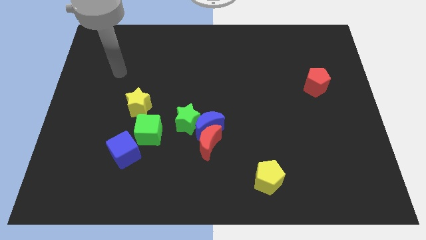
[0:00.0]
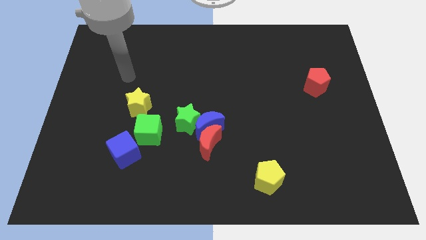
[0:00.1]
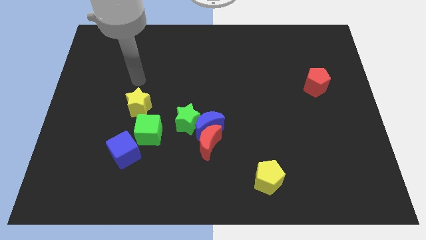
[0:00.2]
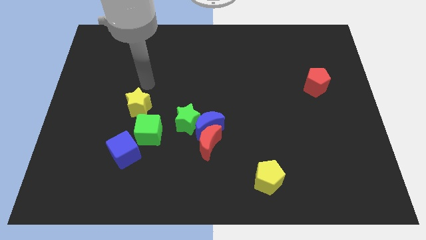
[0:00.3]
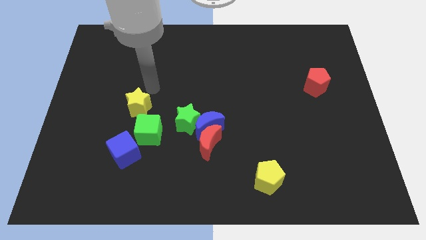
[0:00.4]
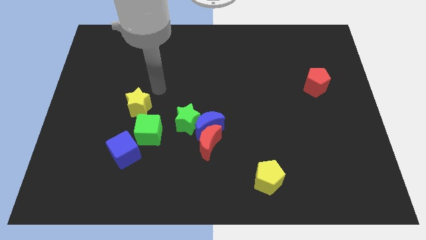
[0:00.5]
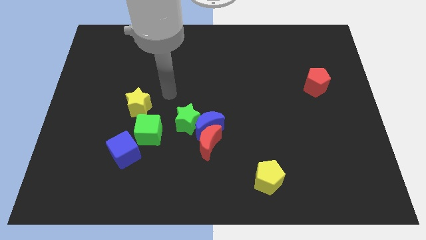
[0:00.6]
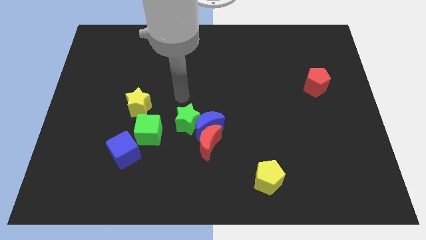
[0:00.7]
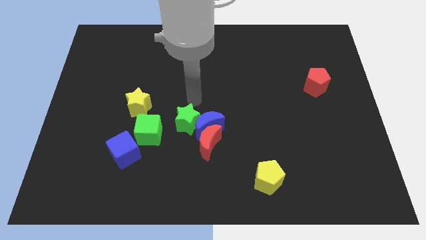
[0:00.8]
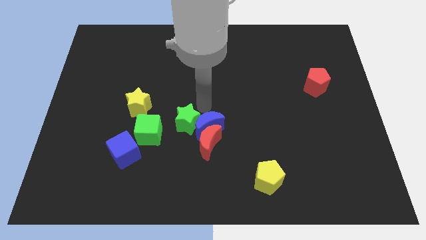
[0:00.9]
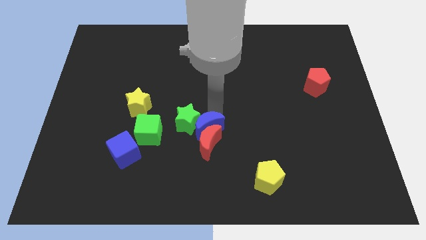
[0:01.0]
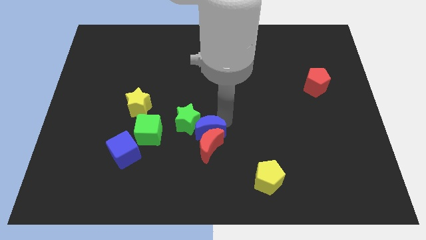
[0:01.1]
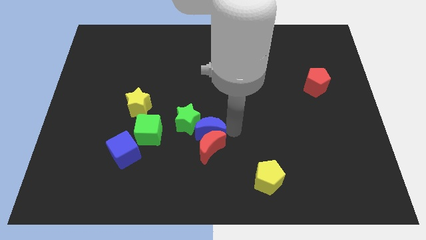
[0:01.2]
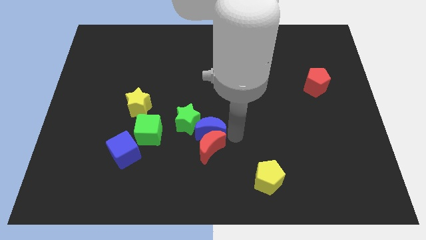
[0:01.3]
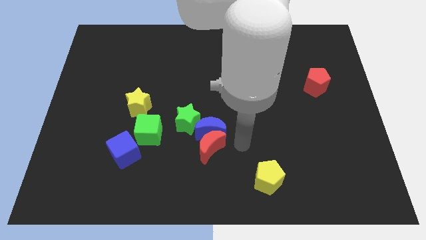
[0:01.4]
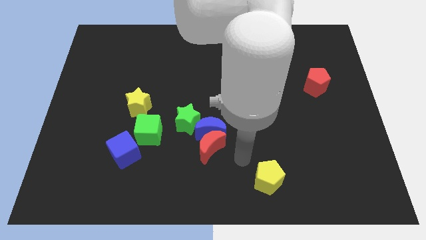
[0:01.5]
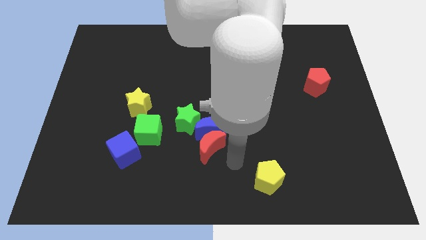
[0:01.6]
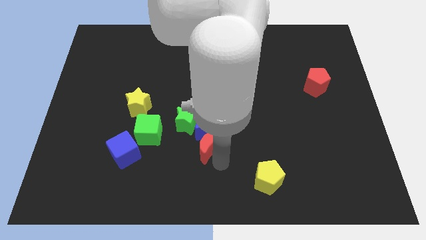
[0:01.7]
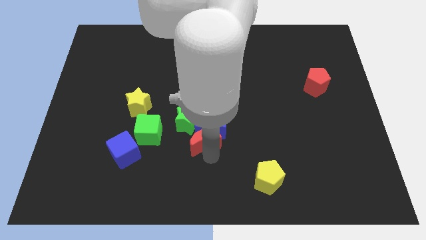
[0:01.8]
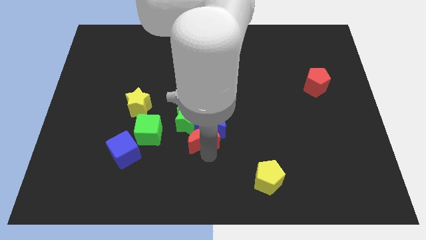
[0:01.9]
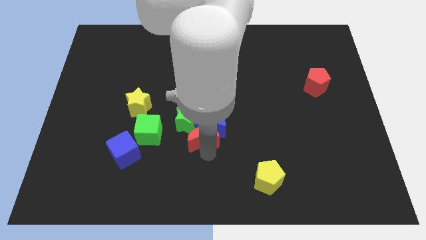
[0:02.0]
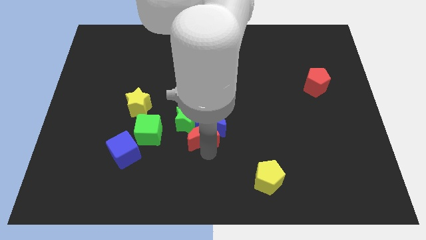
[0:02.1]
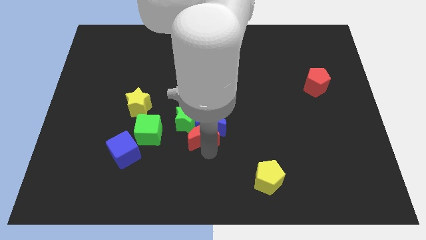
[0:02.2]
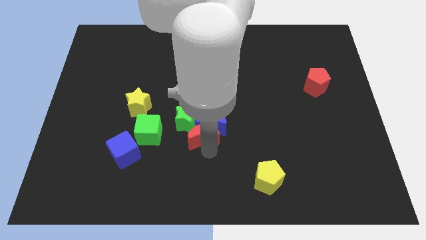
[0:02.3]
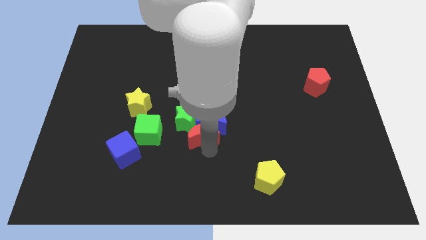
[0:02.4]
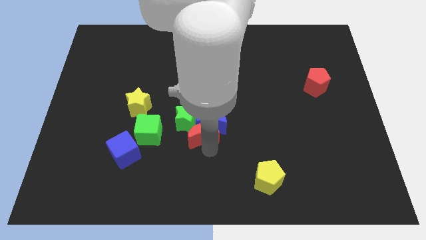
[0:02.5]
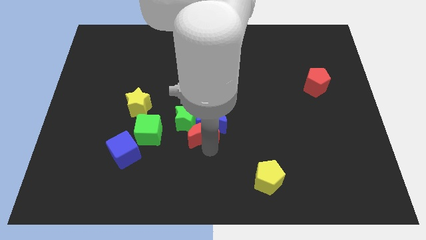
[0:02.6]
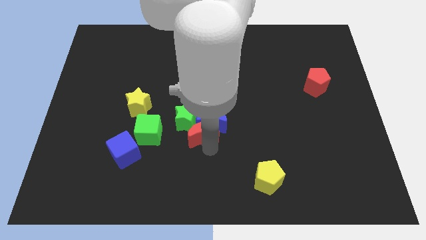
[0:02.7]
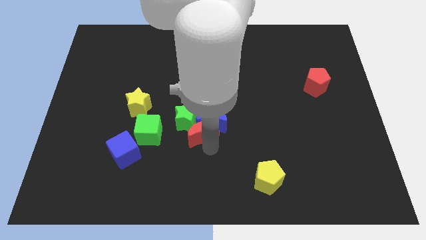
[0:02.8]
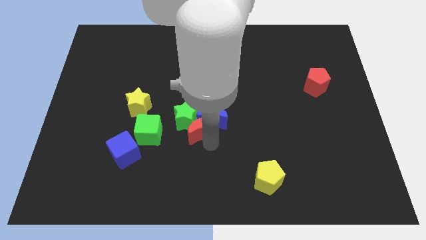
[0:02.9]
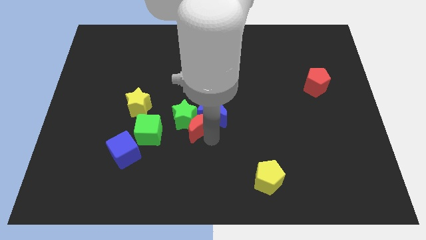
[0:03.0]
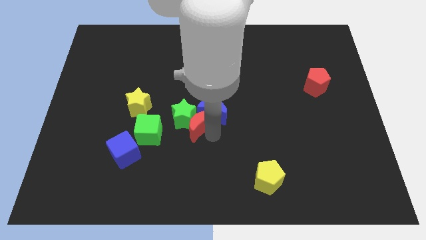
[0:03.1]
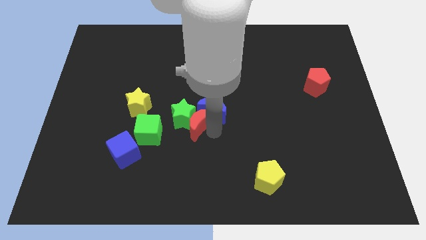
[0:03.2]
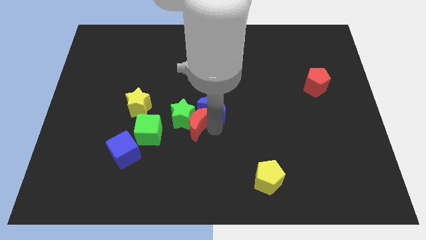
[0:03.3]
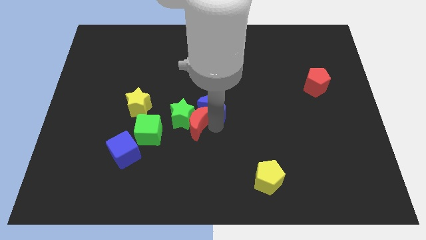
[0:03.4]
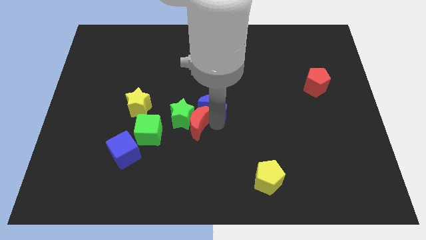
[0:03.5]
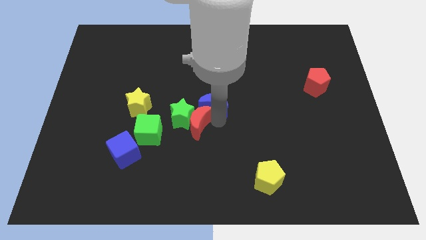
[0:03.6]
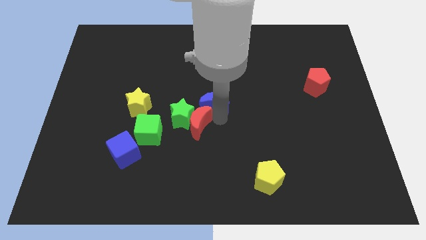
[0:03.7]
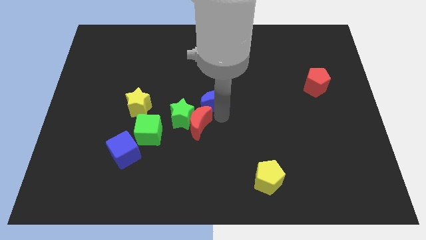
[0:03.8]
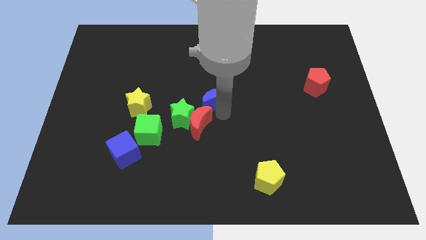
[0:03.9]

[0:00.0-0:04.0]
slide the blue moon slightly upwards

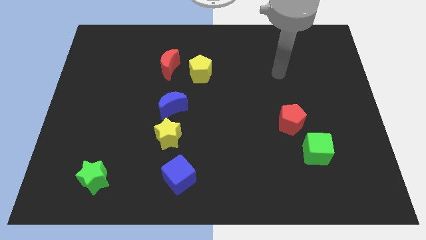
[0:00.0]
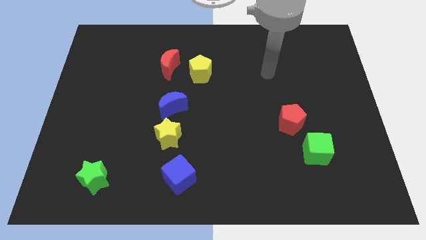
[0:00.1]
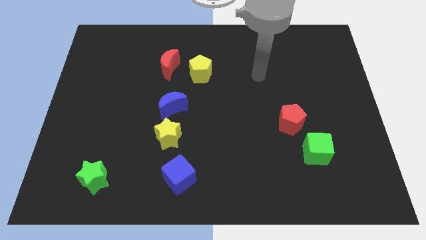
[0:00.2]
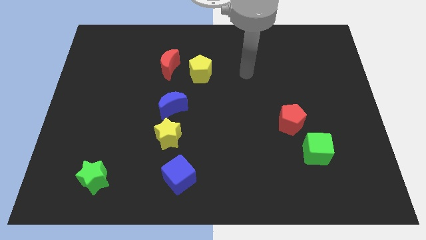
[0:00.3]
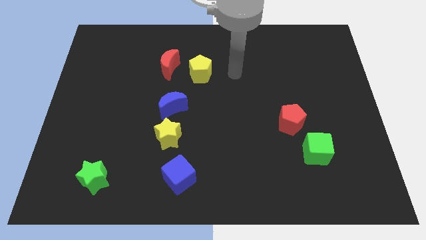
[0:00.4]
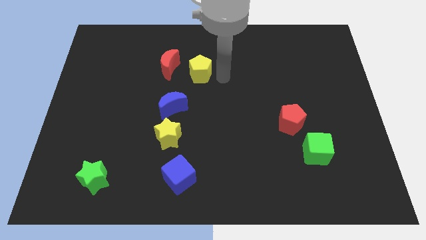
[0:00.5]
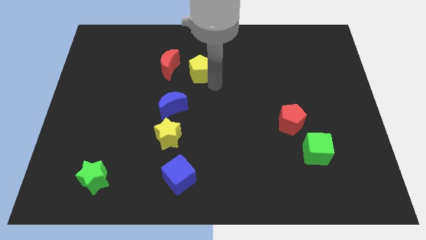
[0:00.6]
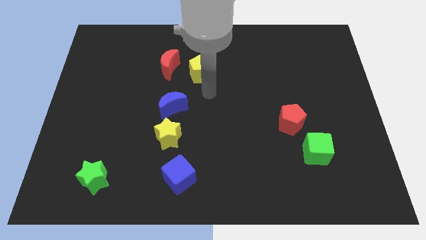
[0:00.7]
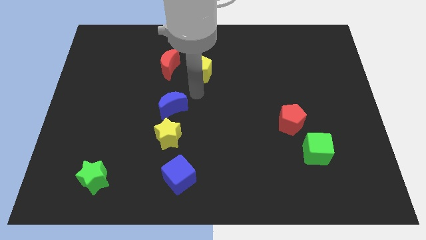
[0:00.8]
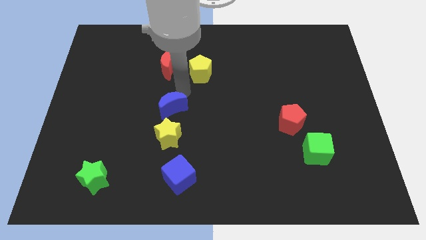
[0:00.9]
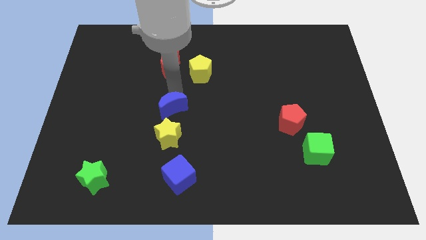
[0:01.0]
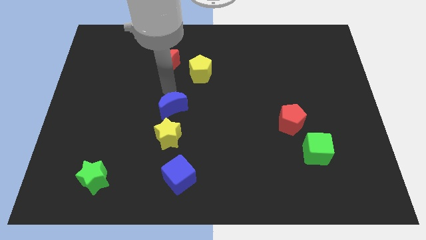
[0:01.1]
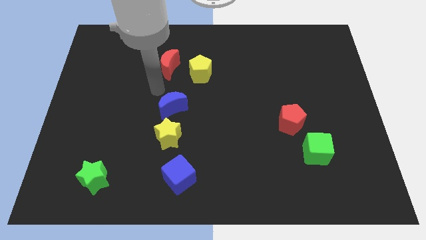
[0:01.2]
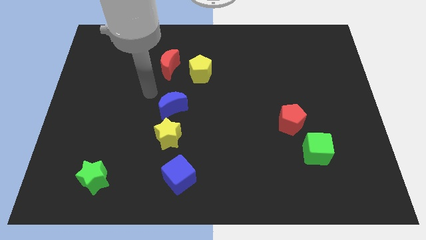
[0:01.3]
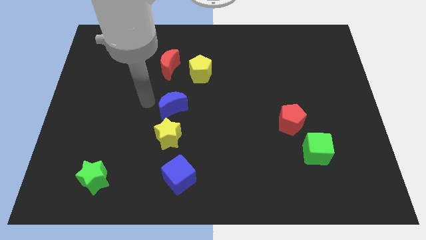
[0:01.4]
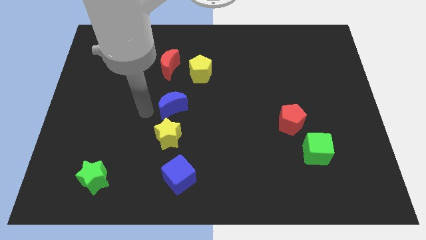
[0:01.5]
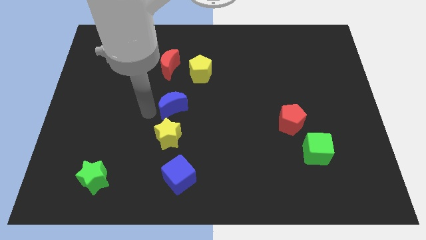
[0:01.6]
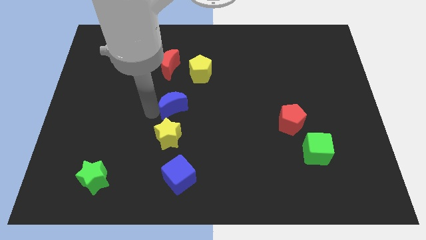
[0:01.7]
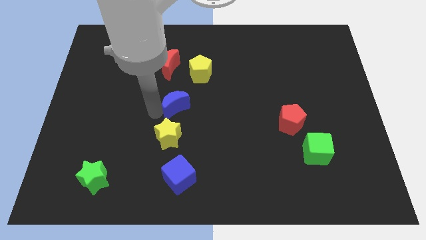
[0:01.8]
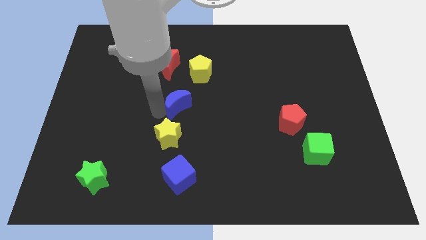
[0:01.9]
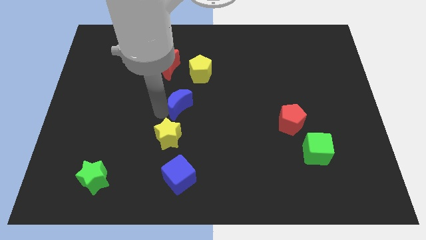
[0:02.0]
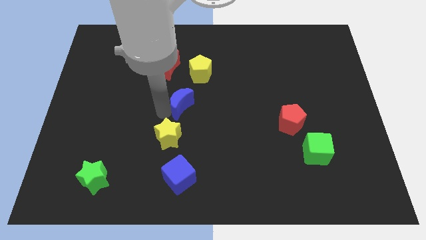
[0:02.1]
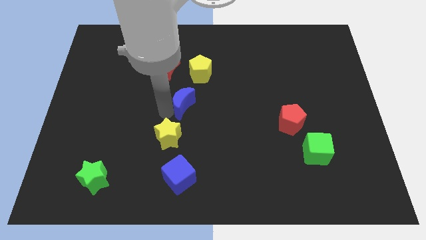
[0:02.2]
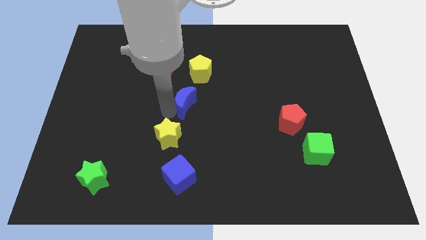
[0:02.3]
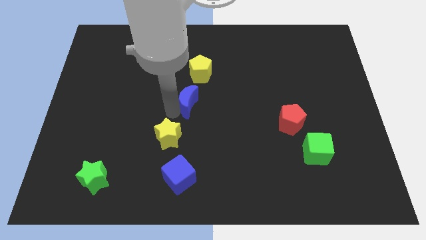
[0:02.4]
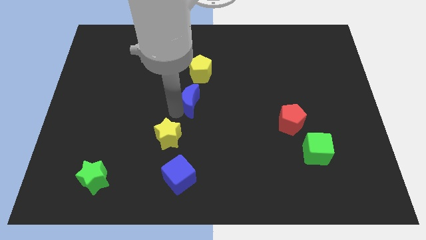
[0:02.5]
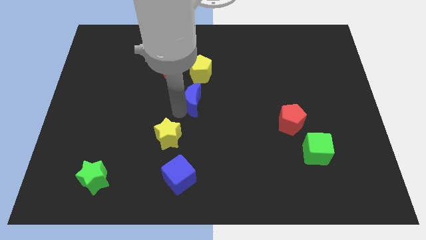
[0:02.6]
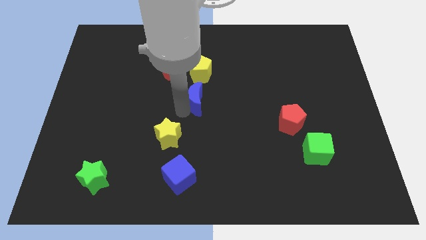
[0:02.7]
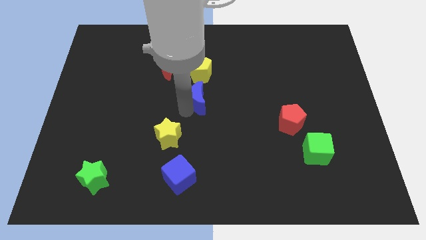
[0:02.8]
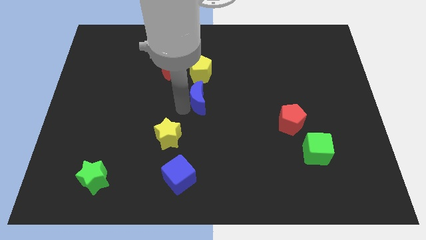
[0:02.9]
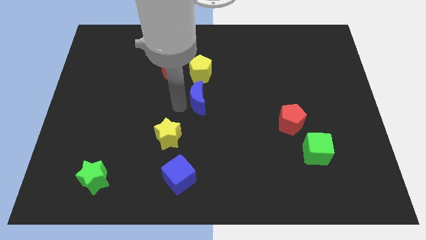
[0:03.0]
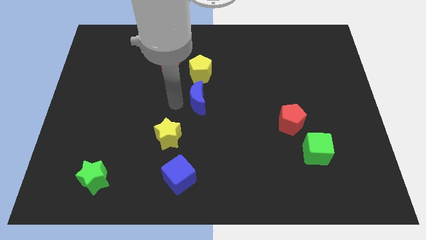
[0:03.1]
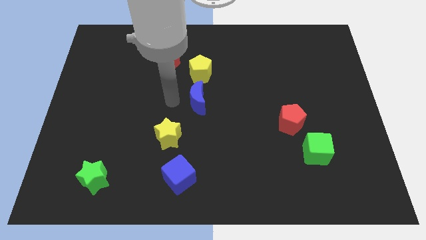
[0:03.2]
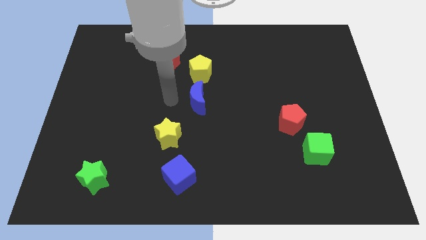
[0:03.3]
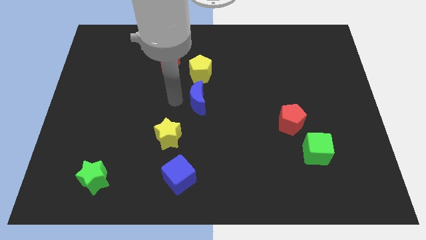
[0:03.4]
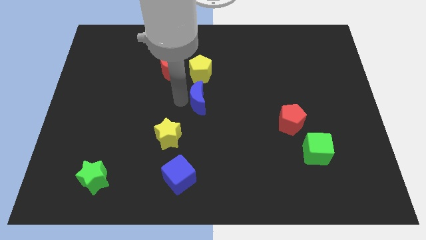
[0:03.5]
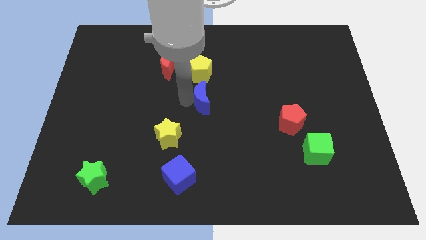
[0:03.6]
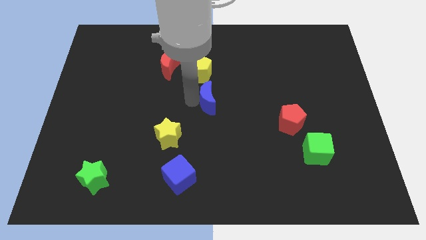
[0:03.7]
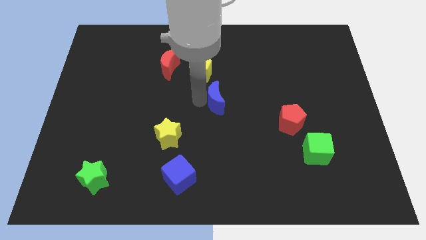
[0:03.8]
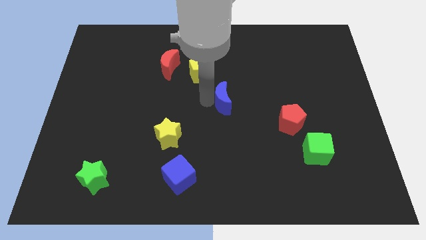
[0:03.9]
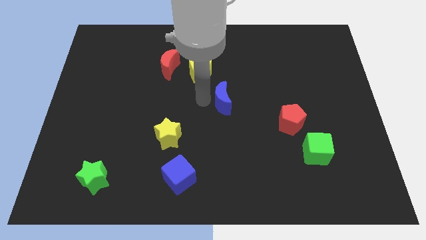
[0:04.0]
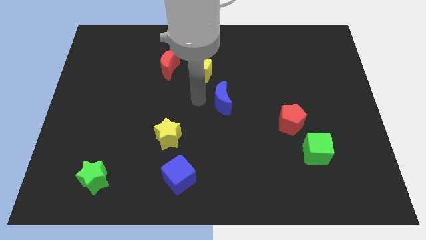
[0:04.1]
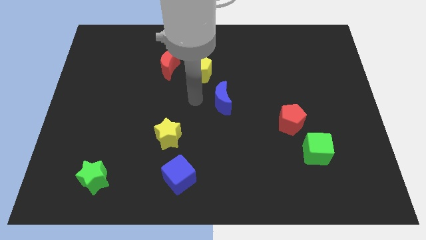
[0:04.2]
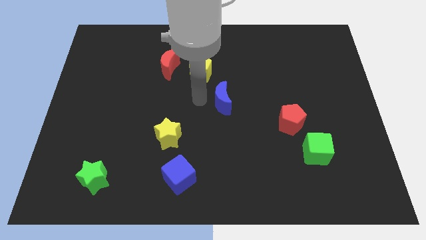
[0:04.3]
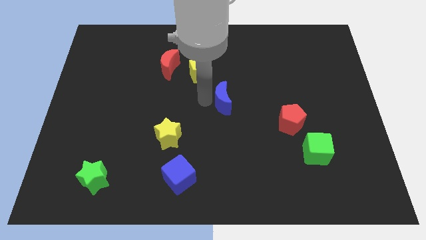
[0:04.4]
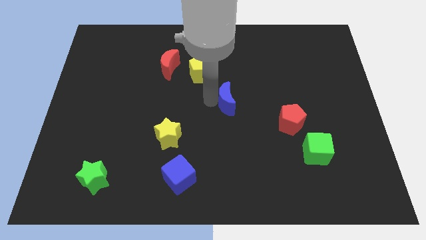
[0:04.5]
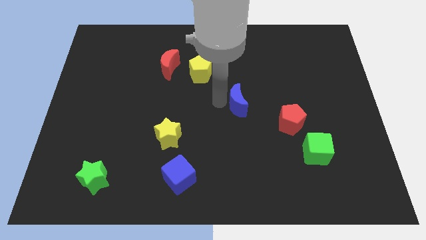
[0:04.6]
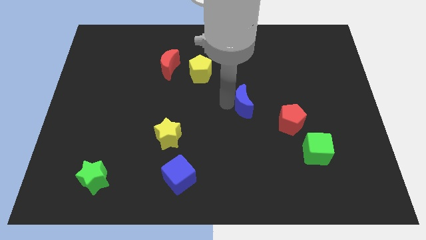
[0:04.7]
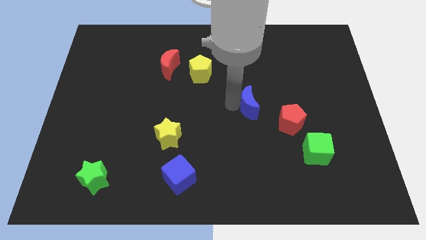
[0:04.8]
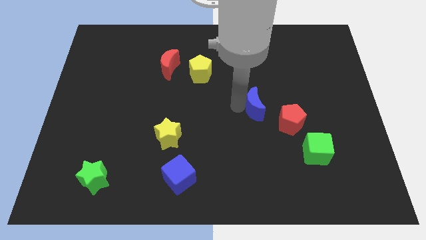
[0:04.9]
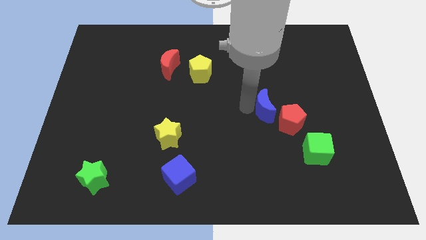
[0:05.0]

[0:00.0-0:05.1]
move the blue moon right
